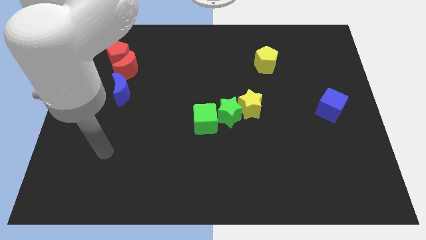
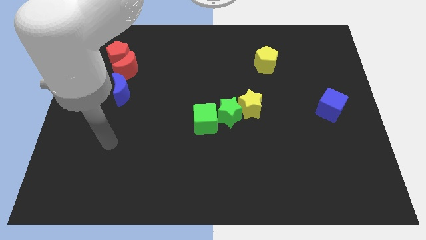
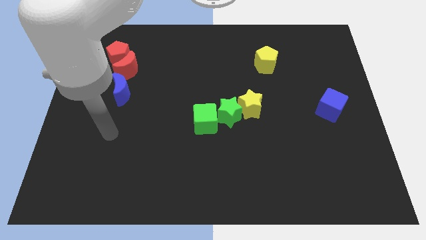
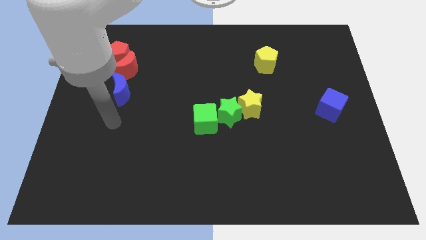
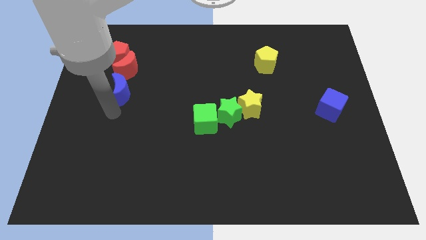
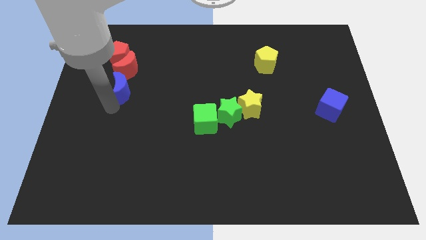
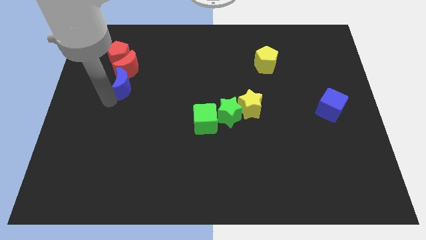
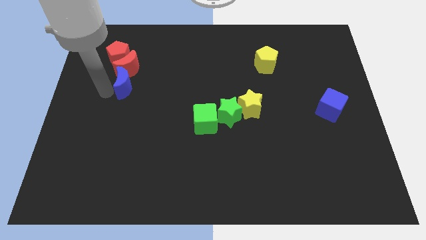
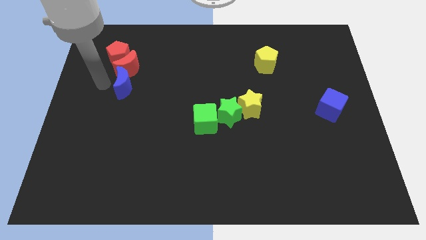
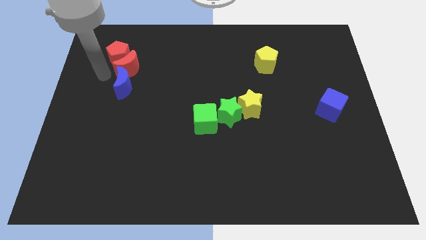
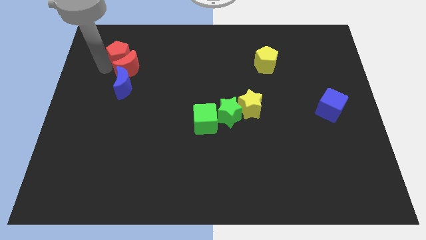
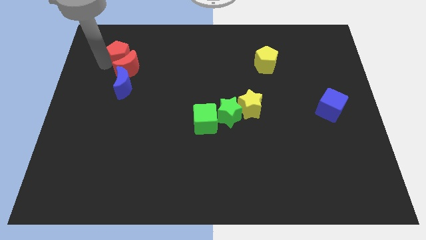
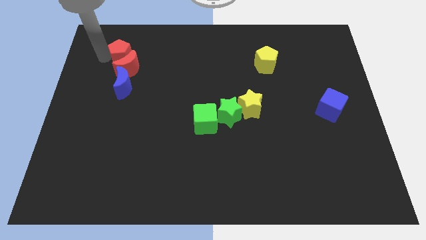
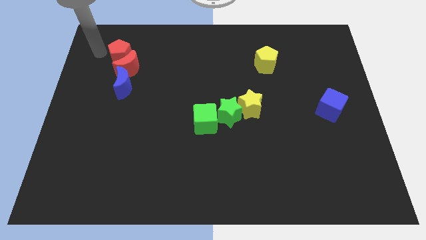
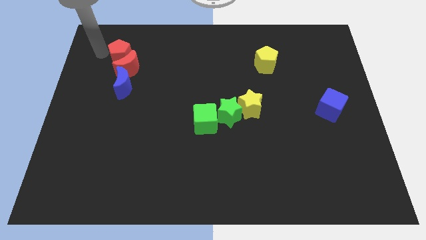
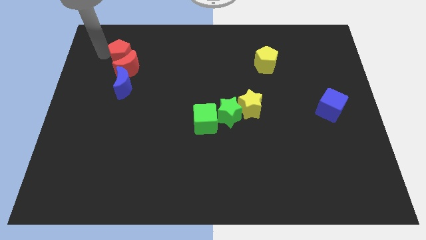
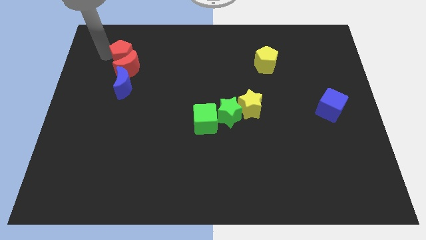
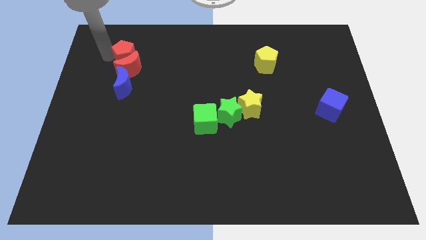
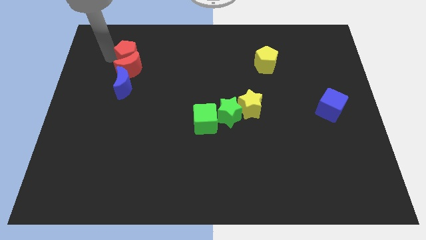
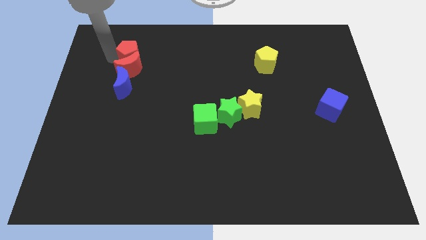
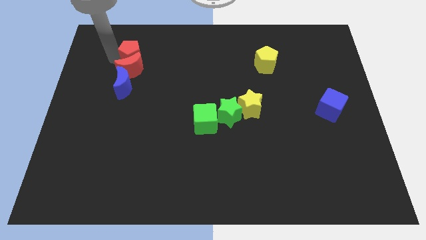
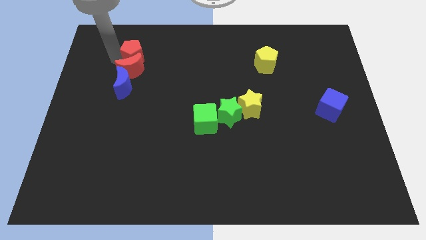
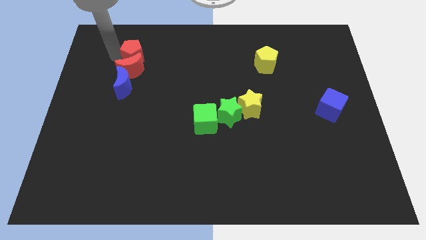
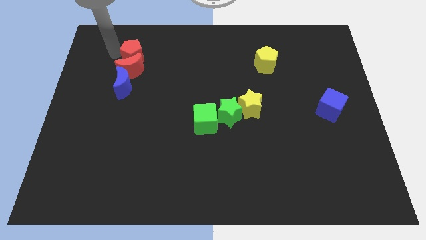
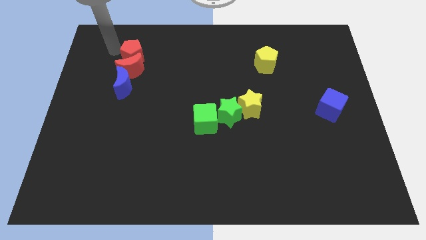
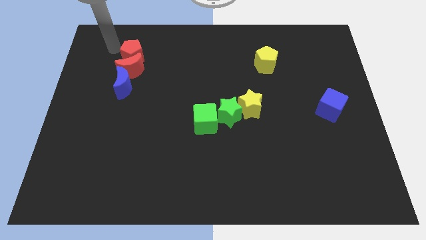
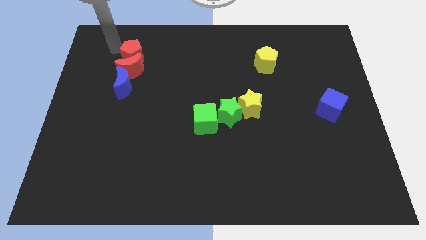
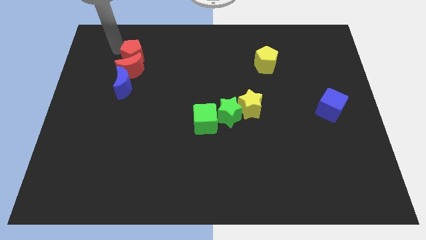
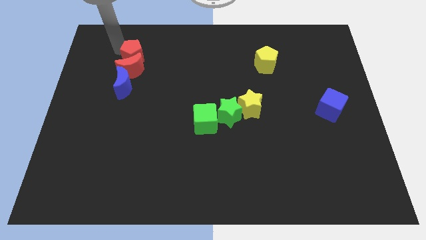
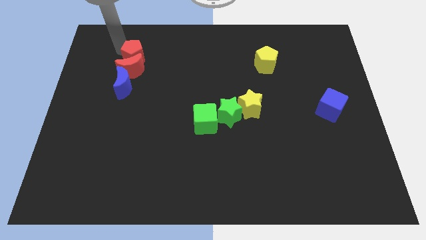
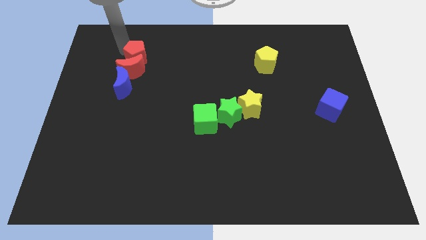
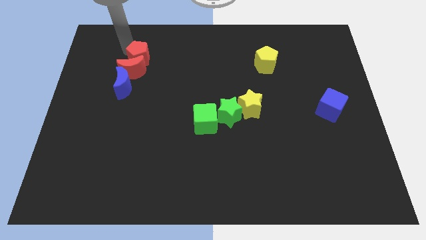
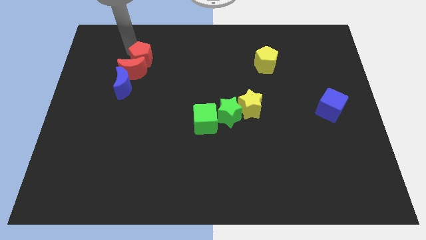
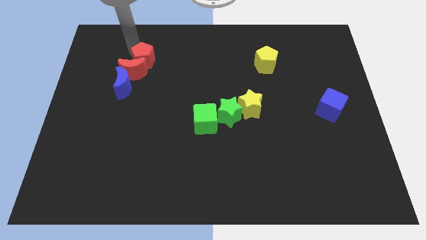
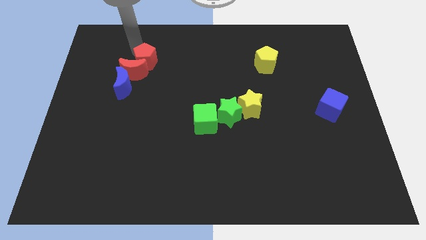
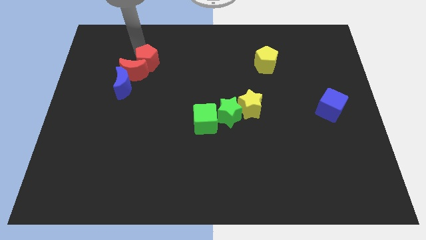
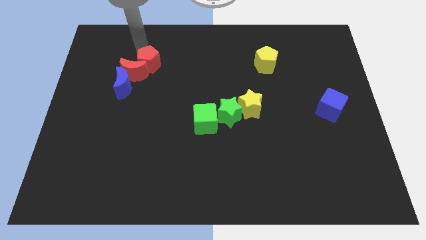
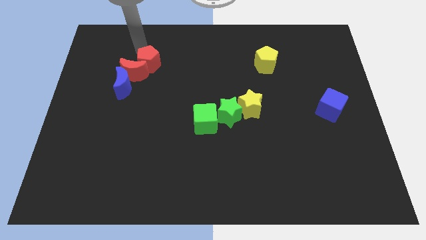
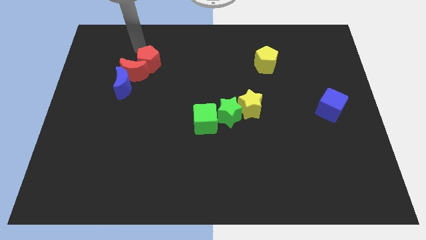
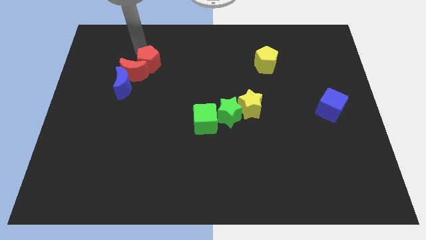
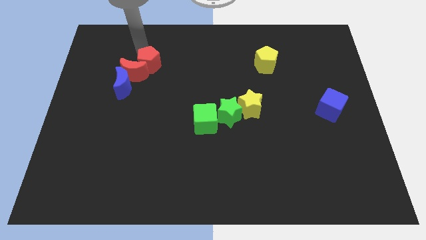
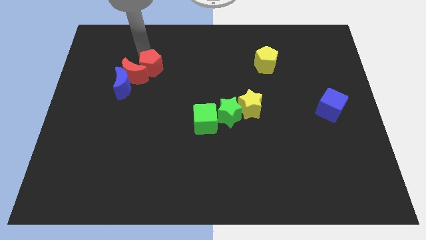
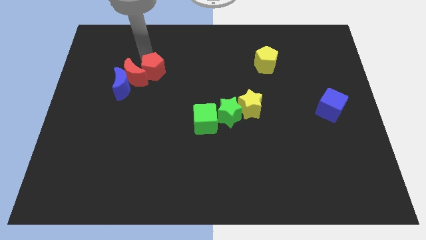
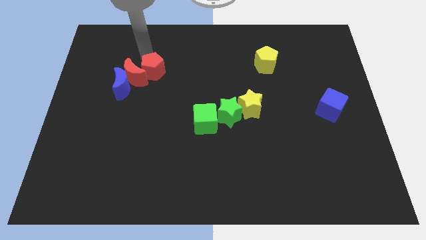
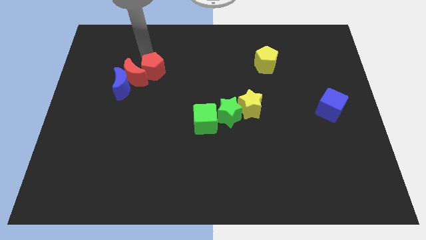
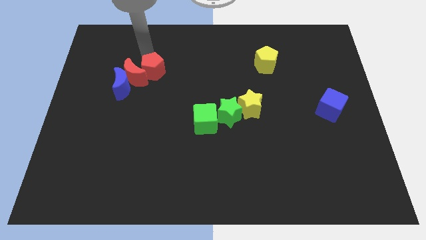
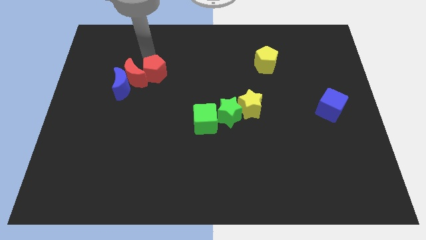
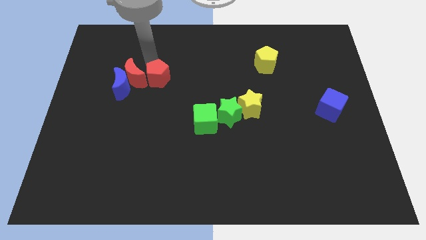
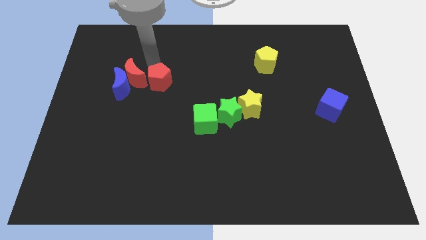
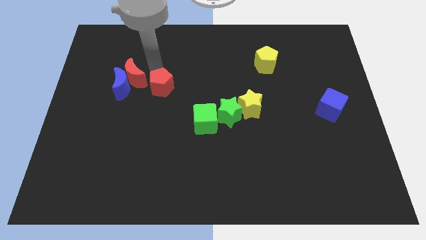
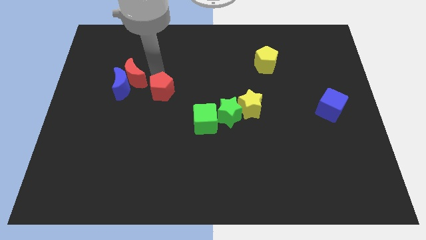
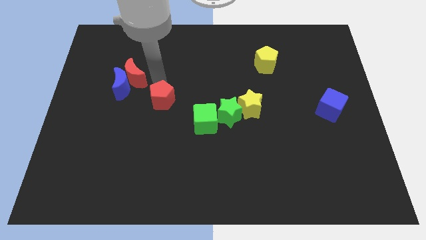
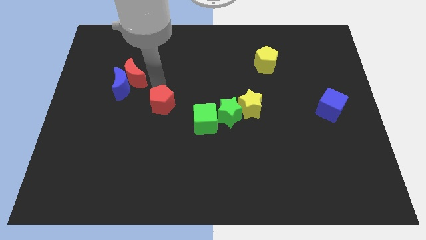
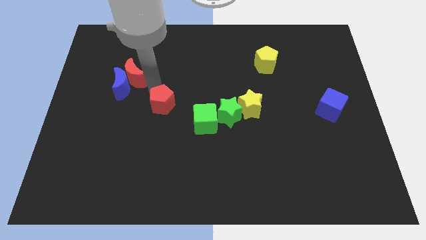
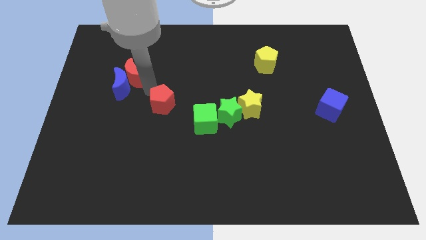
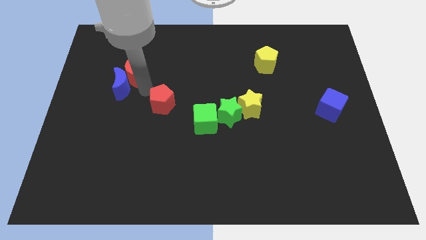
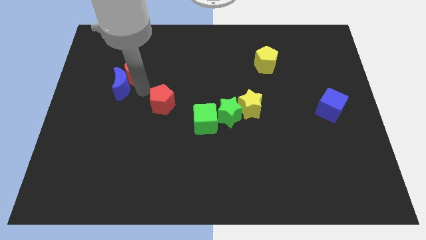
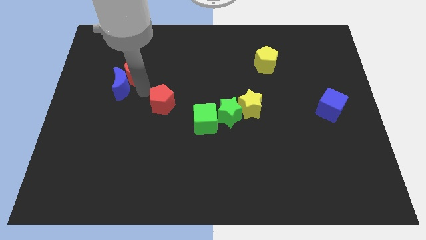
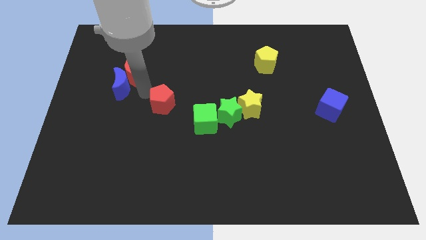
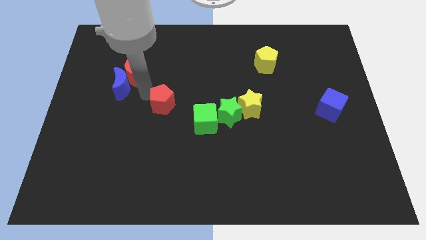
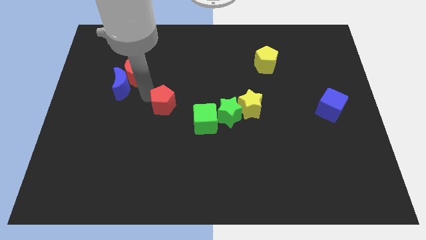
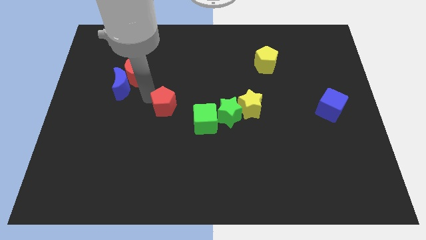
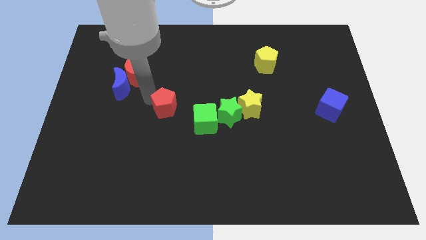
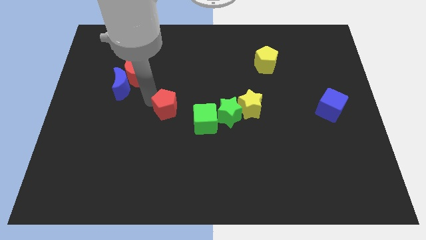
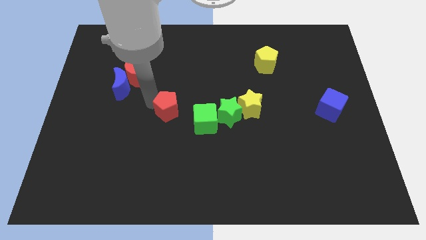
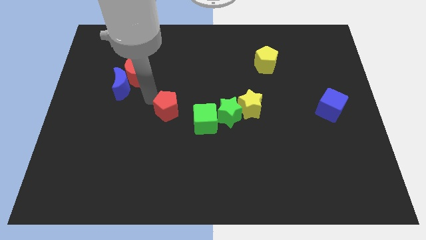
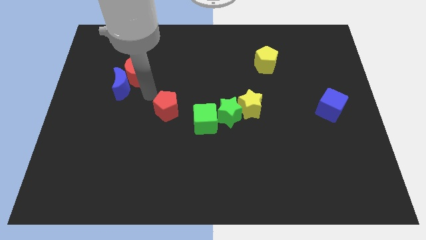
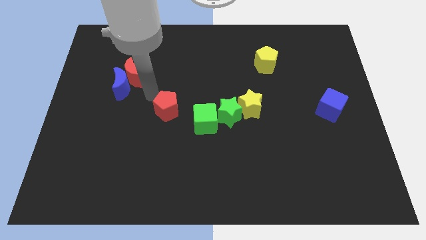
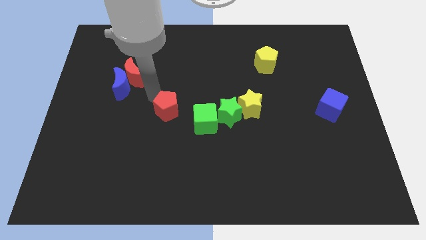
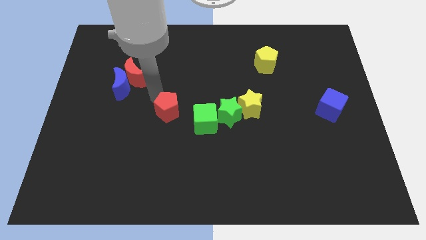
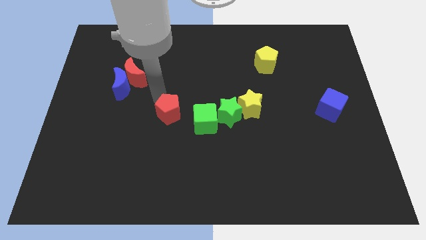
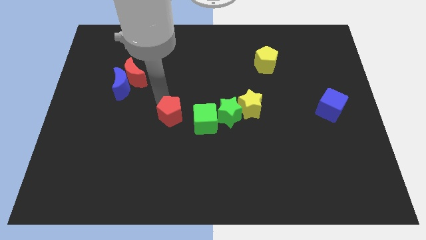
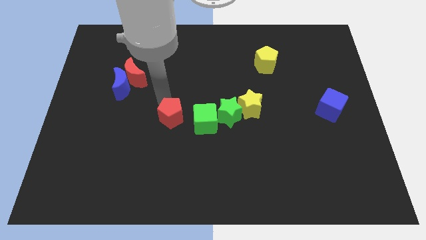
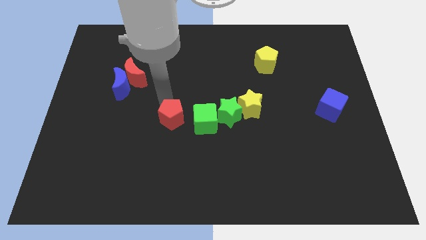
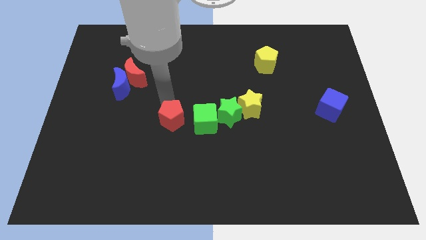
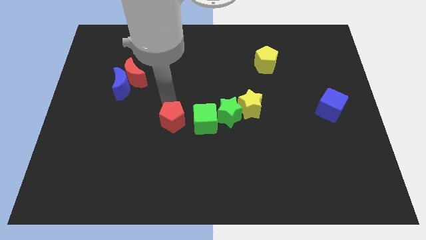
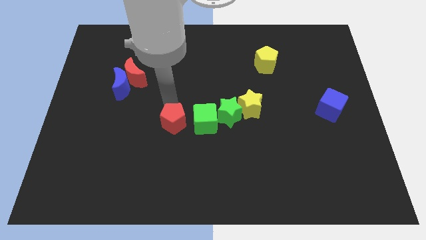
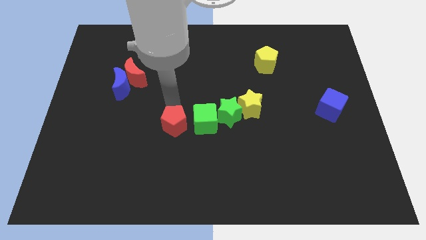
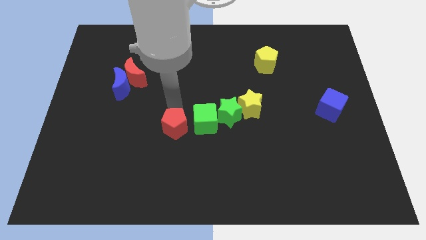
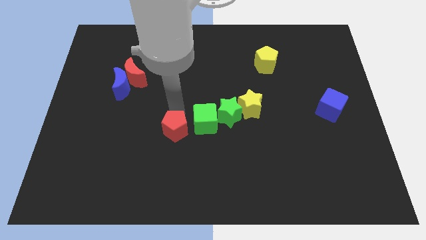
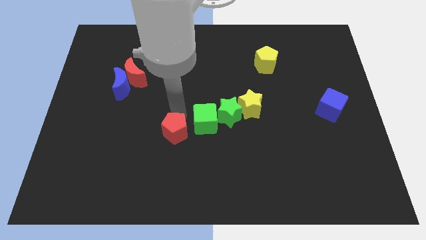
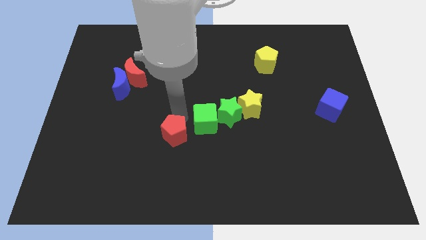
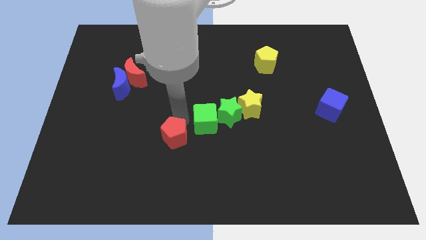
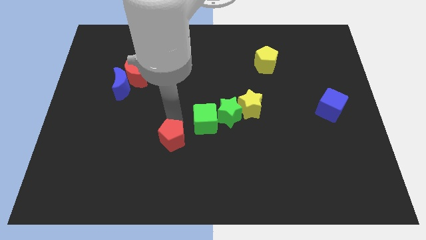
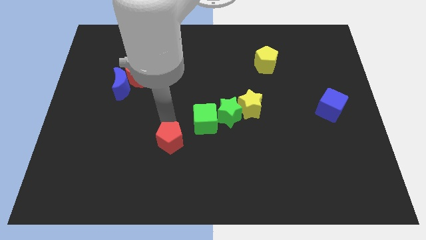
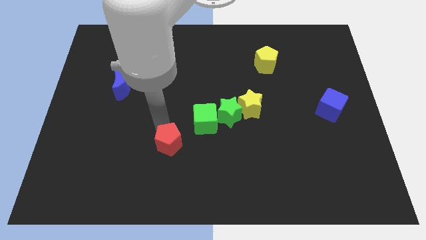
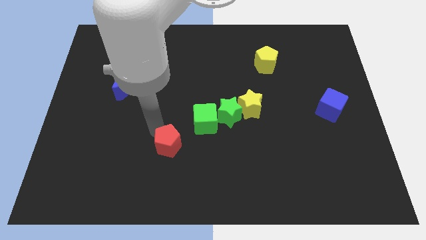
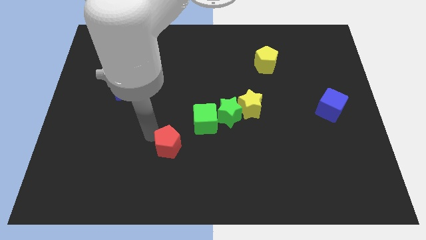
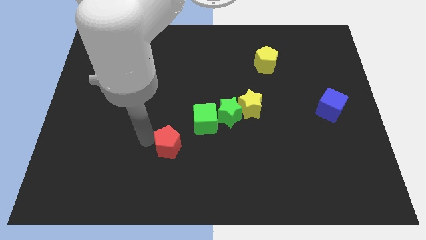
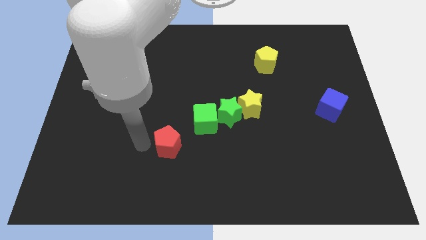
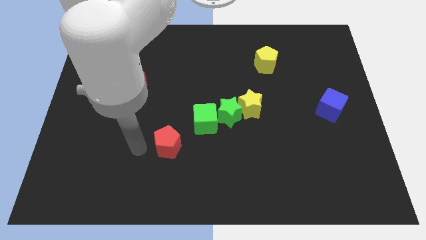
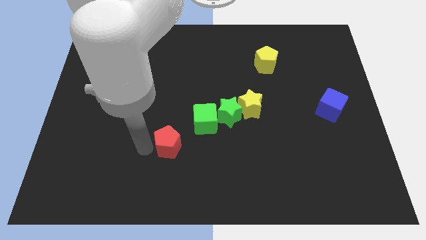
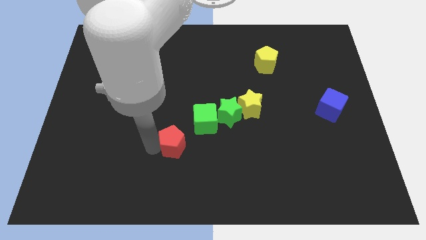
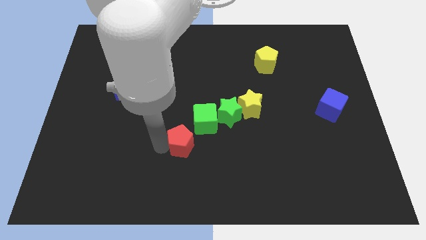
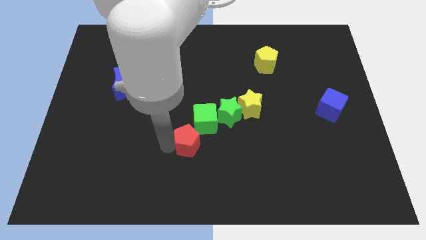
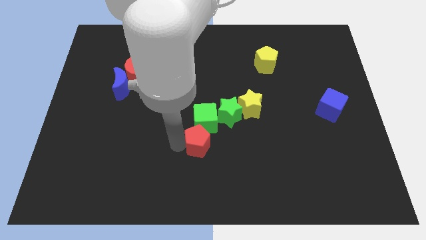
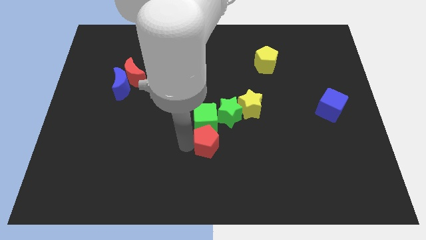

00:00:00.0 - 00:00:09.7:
put the red pentagon to the bottom right side of the green cube
